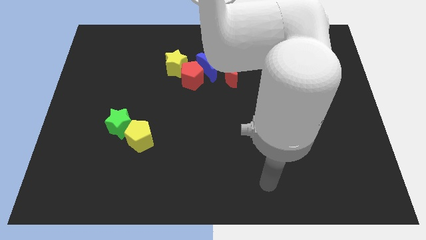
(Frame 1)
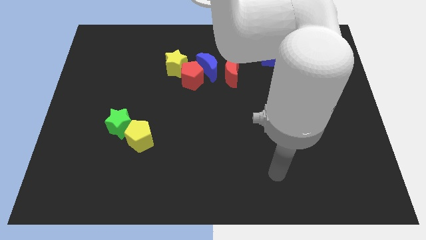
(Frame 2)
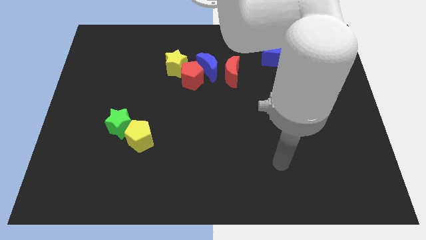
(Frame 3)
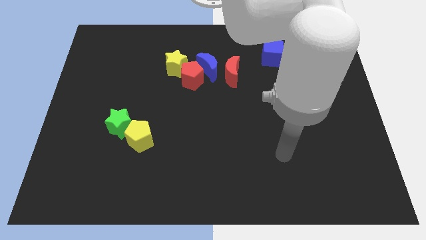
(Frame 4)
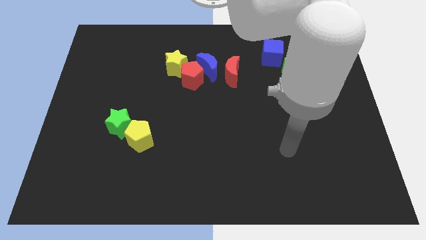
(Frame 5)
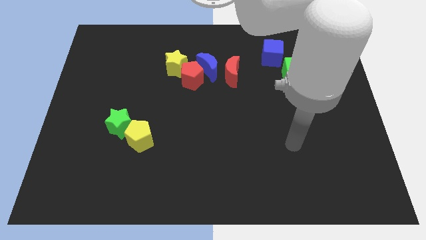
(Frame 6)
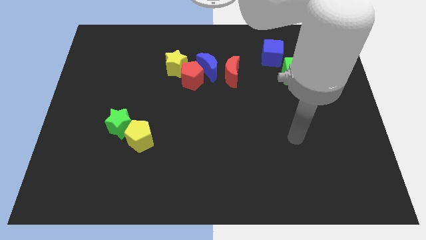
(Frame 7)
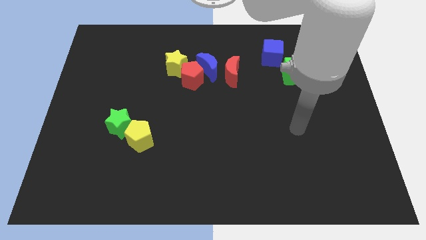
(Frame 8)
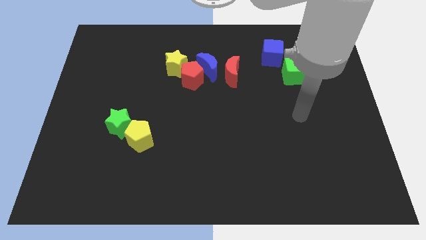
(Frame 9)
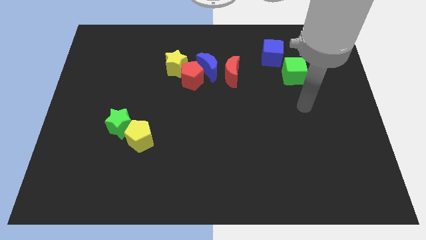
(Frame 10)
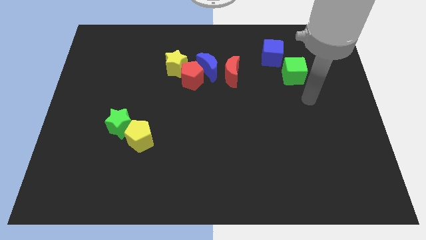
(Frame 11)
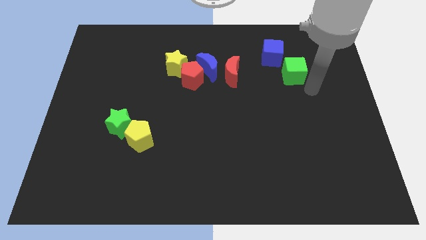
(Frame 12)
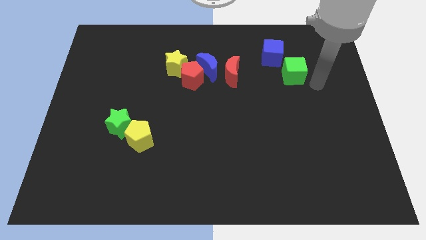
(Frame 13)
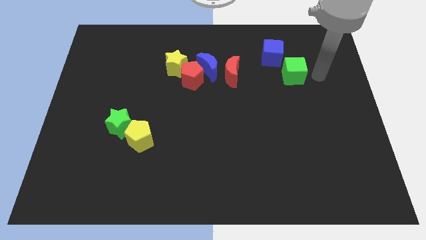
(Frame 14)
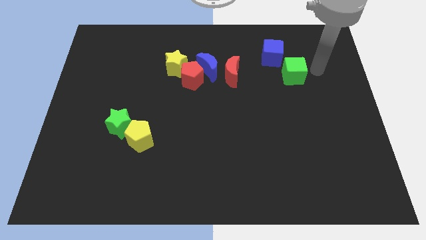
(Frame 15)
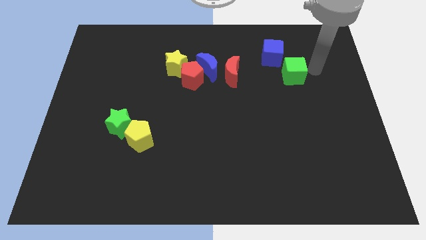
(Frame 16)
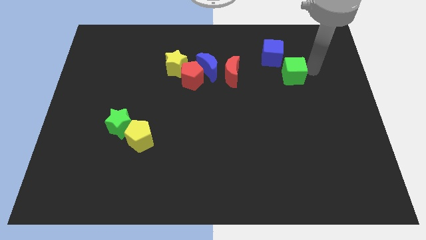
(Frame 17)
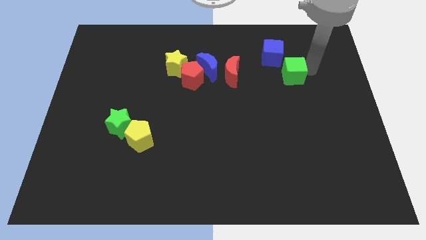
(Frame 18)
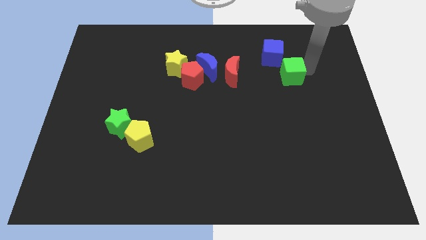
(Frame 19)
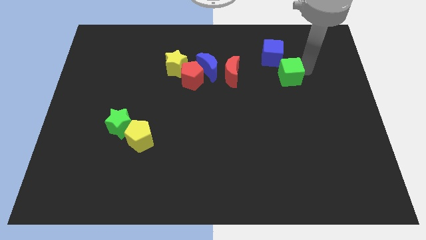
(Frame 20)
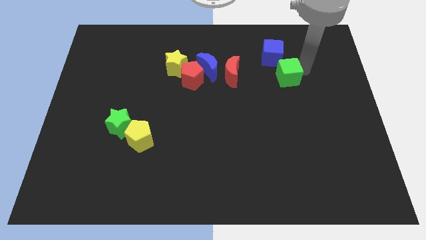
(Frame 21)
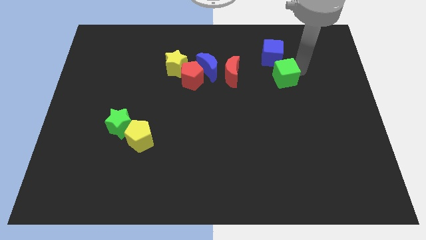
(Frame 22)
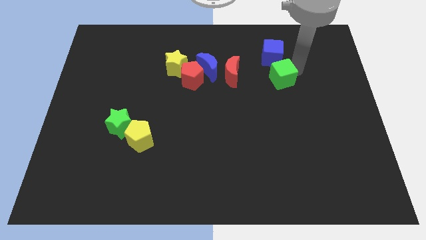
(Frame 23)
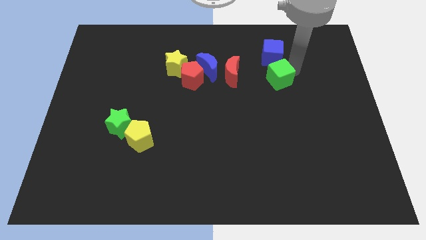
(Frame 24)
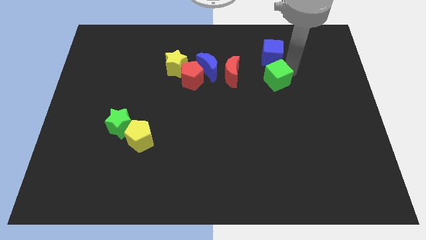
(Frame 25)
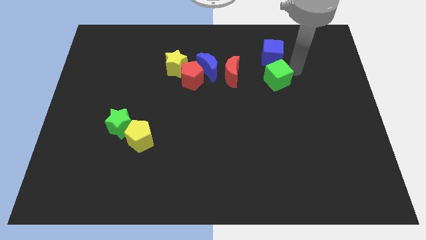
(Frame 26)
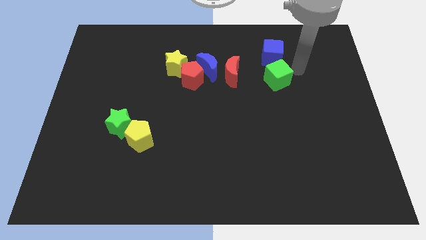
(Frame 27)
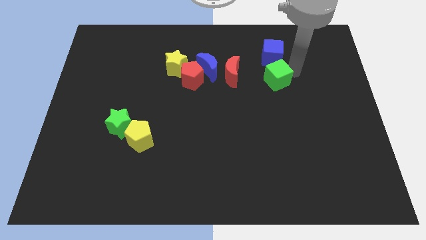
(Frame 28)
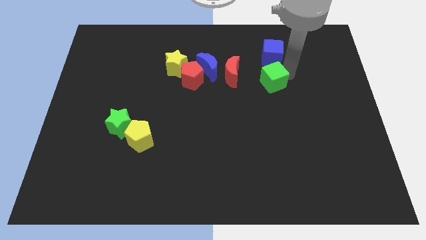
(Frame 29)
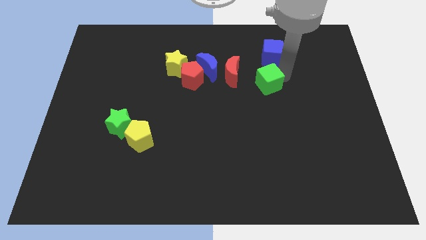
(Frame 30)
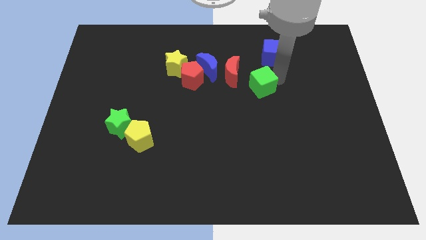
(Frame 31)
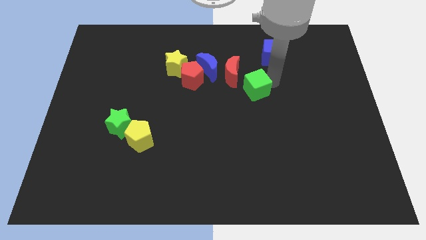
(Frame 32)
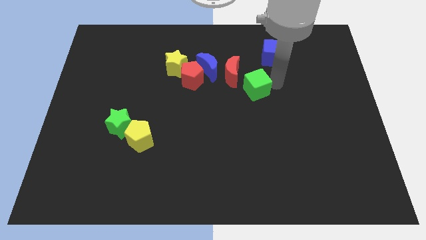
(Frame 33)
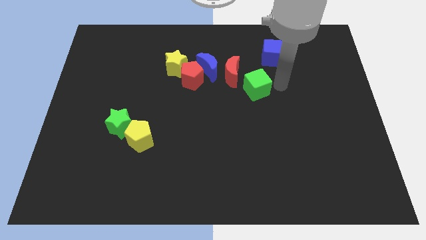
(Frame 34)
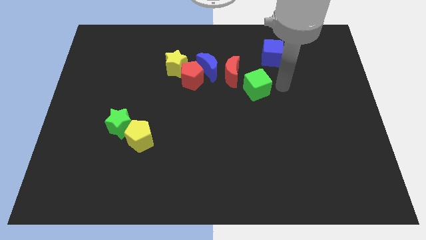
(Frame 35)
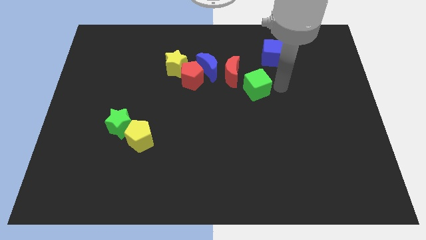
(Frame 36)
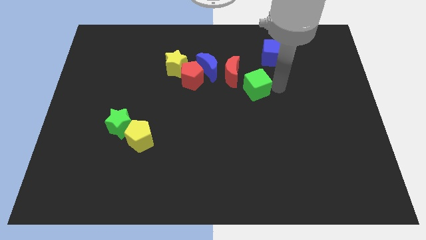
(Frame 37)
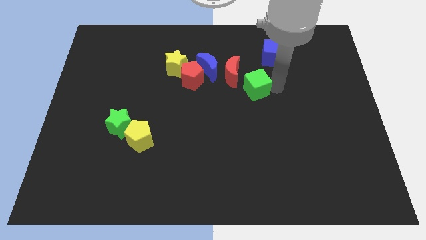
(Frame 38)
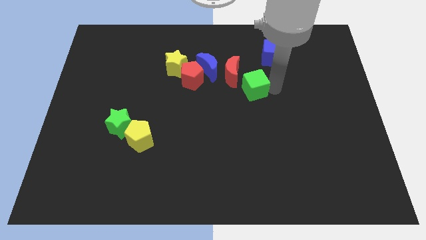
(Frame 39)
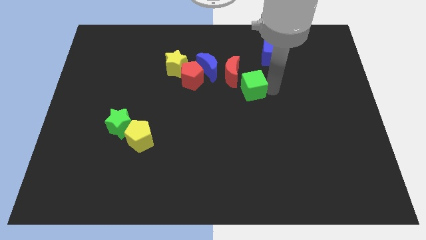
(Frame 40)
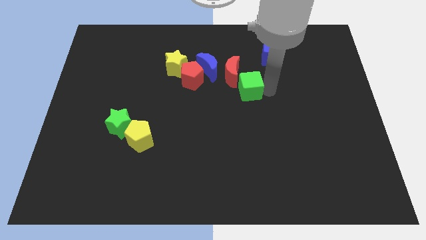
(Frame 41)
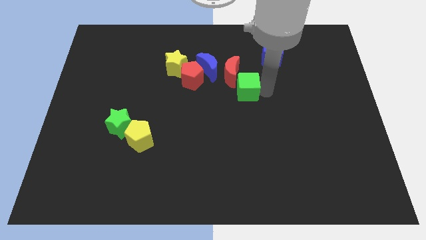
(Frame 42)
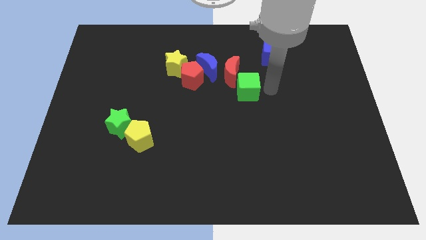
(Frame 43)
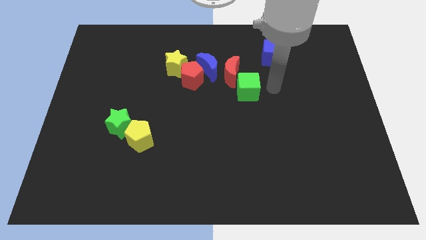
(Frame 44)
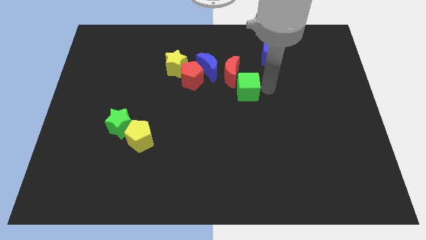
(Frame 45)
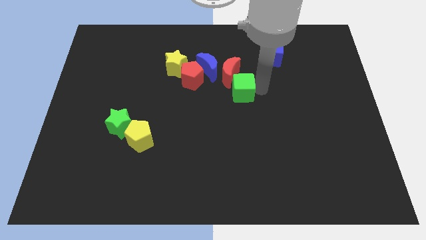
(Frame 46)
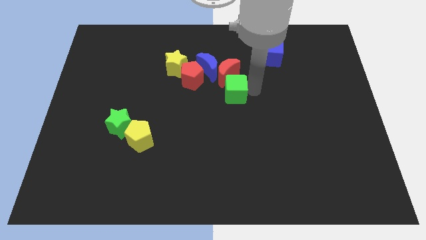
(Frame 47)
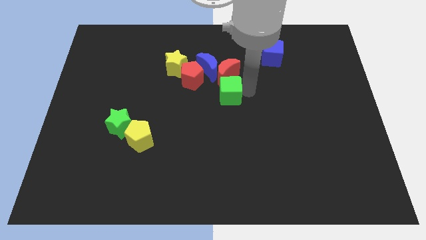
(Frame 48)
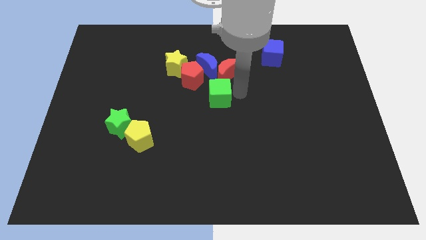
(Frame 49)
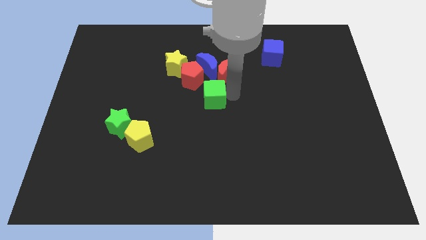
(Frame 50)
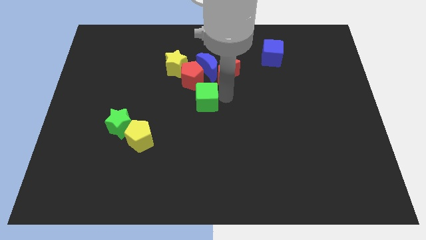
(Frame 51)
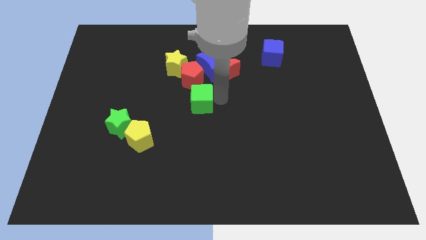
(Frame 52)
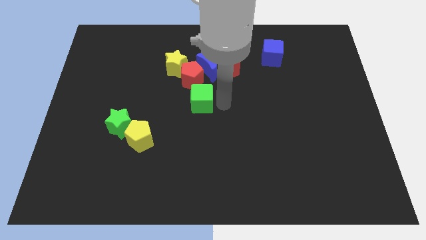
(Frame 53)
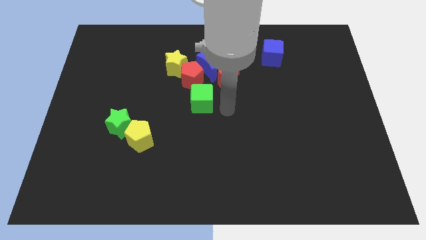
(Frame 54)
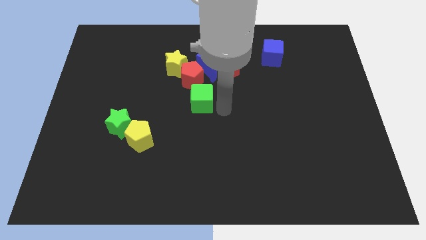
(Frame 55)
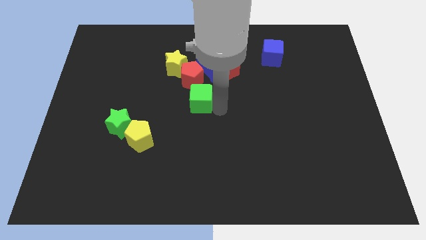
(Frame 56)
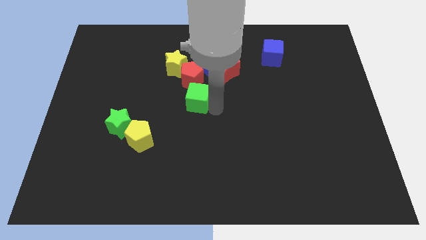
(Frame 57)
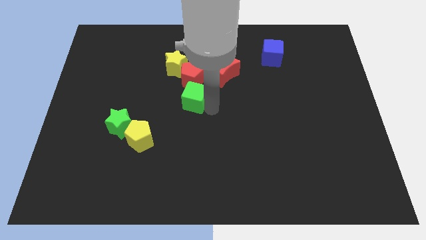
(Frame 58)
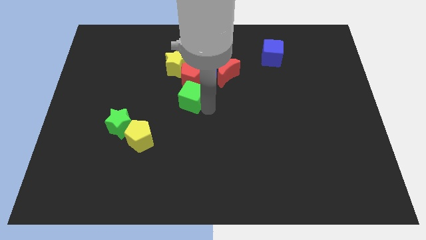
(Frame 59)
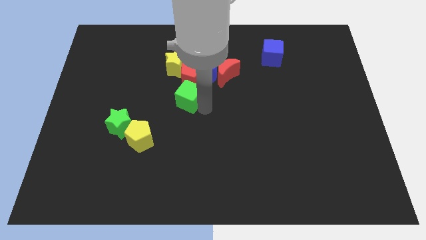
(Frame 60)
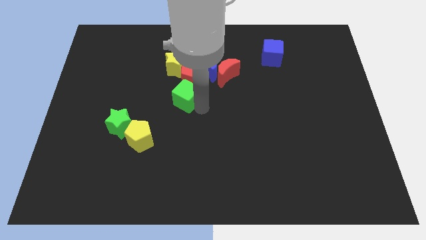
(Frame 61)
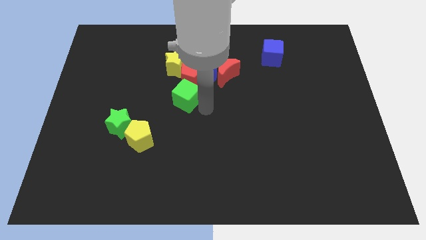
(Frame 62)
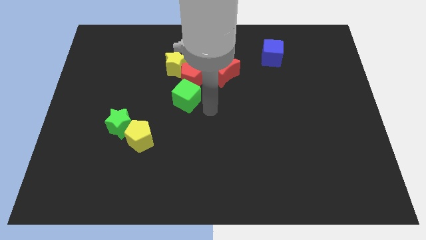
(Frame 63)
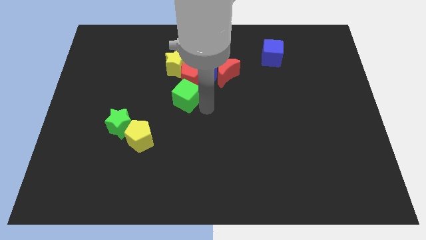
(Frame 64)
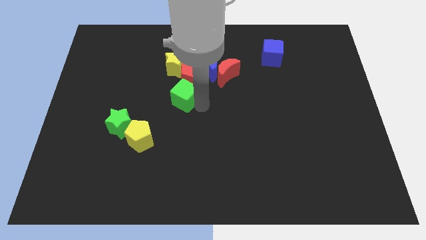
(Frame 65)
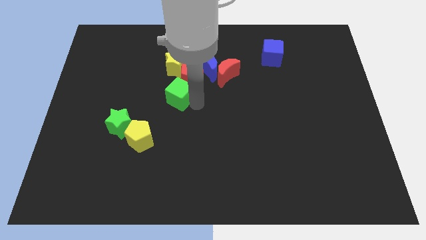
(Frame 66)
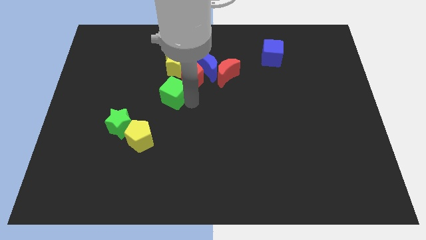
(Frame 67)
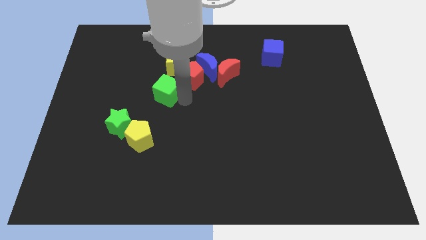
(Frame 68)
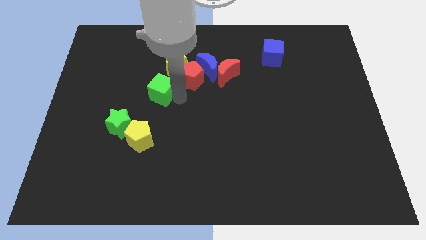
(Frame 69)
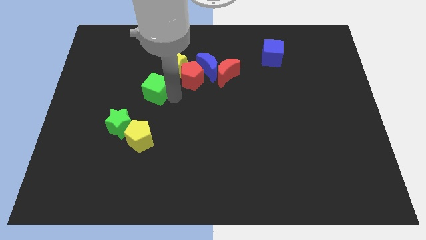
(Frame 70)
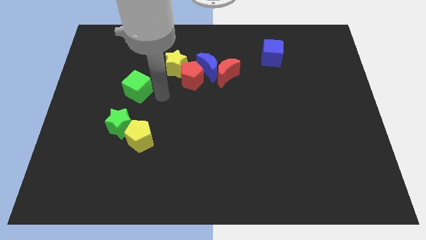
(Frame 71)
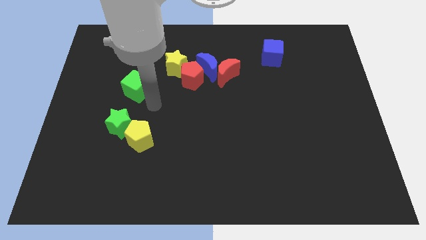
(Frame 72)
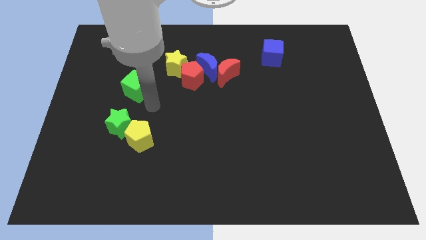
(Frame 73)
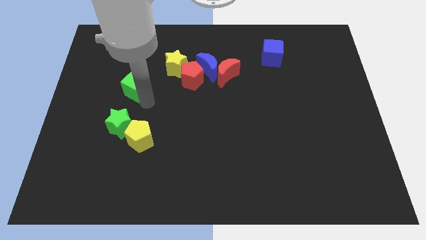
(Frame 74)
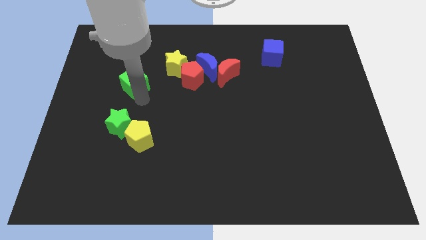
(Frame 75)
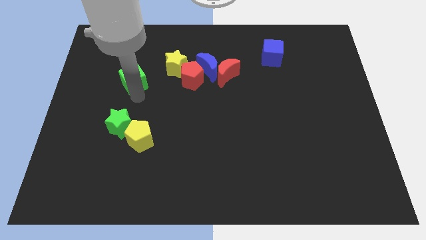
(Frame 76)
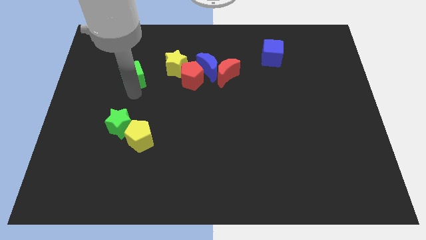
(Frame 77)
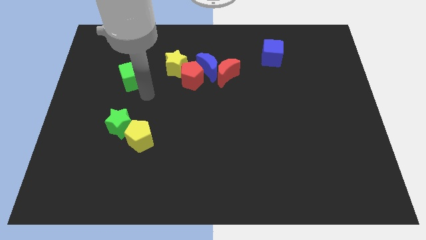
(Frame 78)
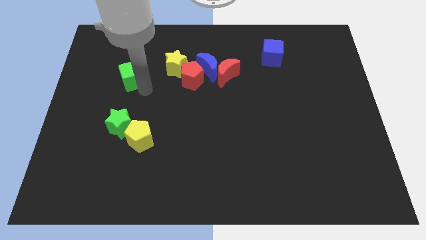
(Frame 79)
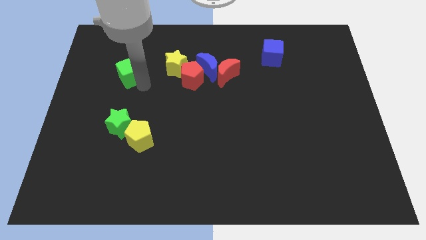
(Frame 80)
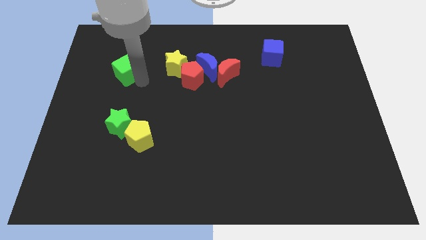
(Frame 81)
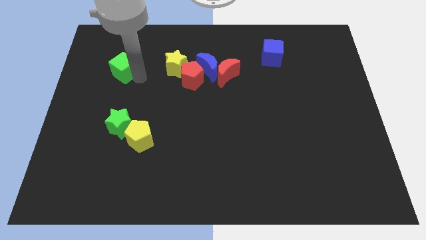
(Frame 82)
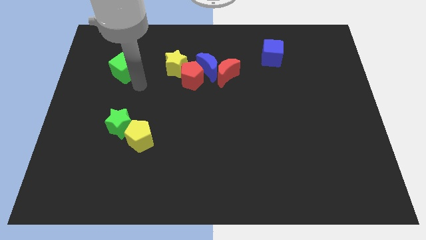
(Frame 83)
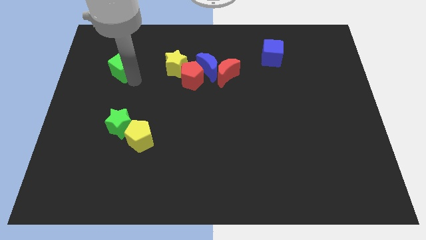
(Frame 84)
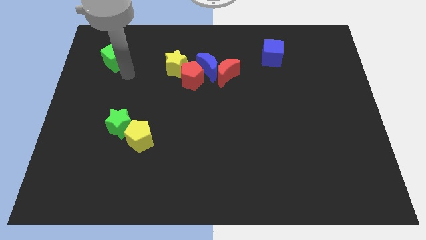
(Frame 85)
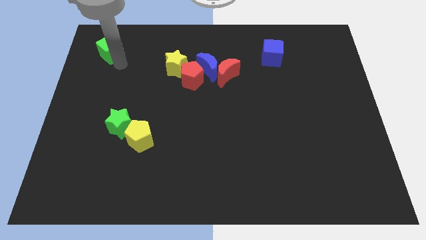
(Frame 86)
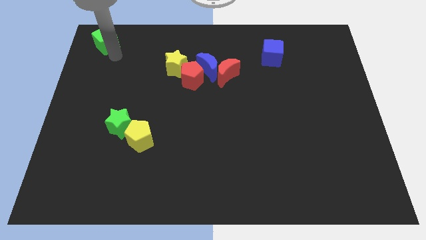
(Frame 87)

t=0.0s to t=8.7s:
push the green cube to the top left corner
